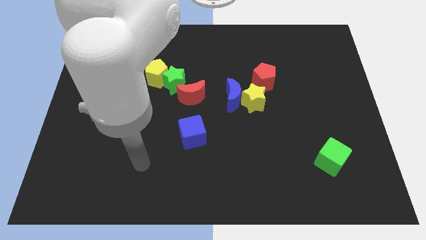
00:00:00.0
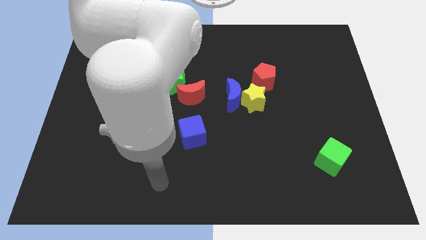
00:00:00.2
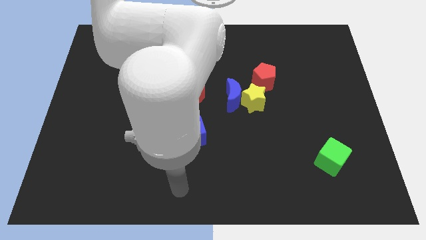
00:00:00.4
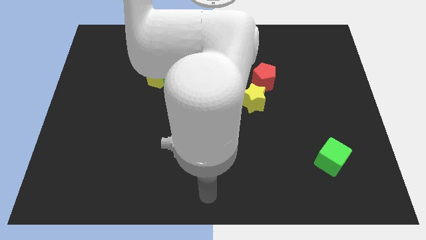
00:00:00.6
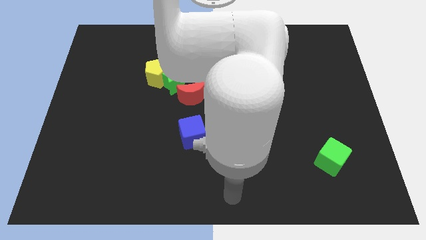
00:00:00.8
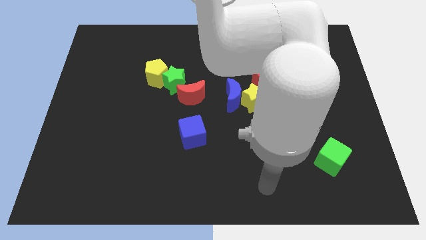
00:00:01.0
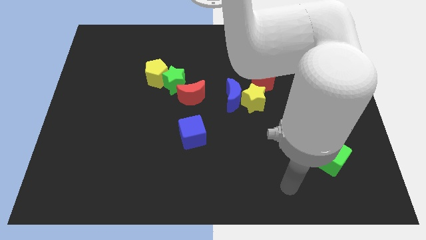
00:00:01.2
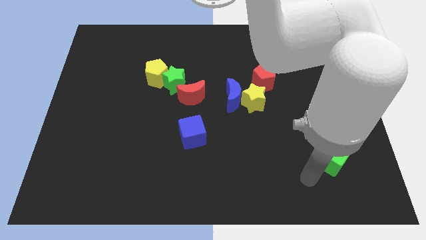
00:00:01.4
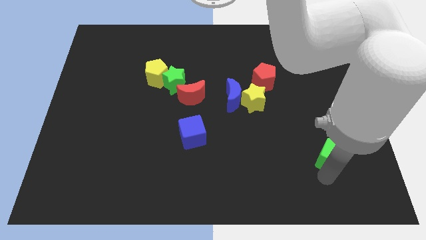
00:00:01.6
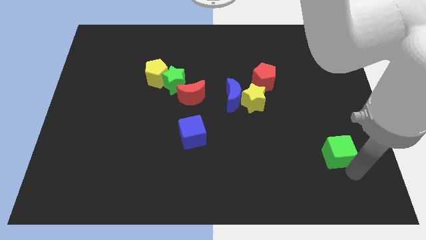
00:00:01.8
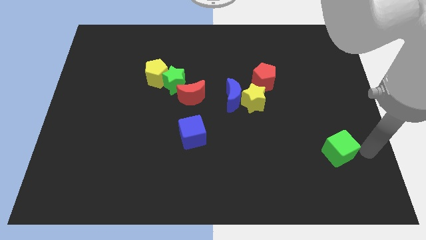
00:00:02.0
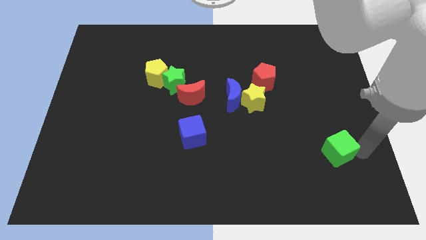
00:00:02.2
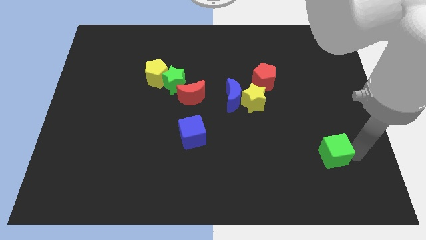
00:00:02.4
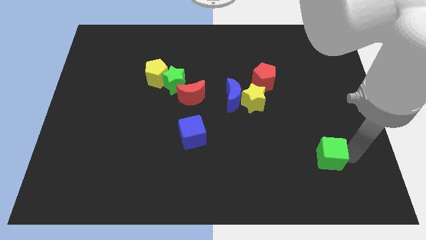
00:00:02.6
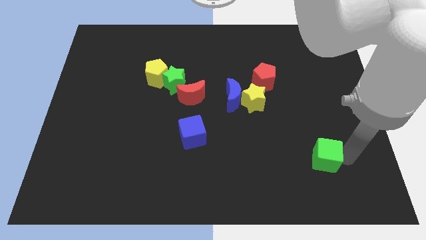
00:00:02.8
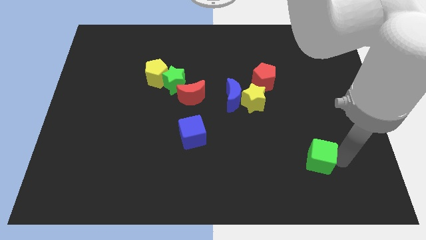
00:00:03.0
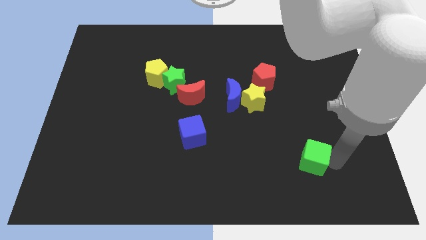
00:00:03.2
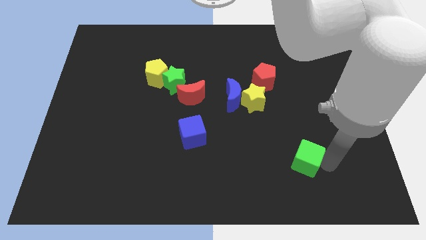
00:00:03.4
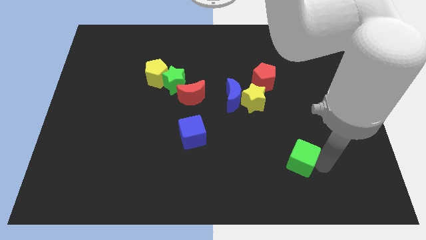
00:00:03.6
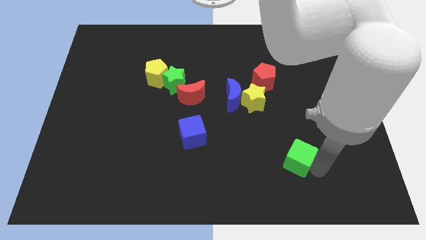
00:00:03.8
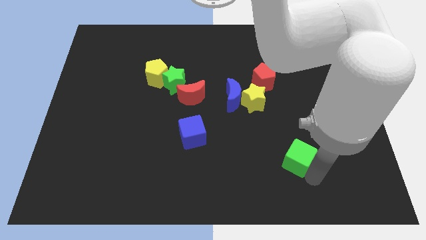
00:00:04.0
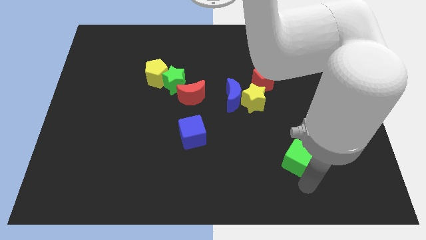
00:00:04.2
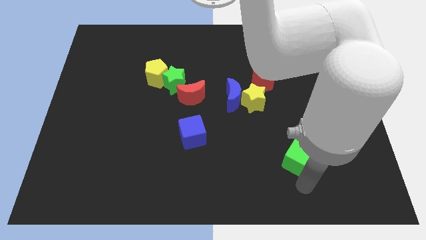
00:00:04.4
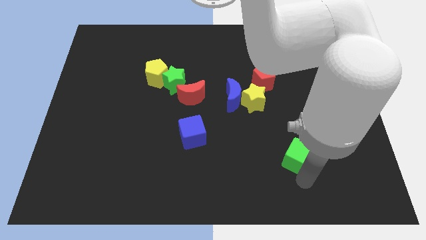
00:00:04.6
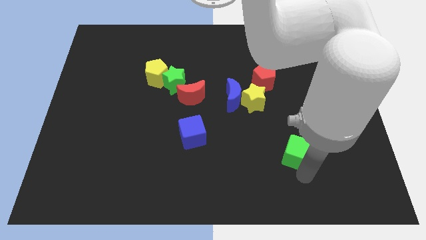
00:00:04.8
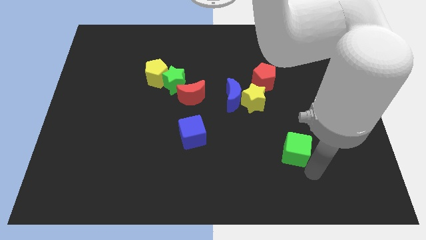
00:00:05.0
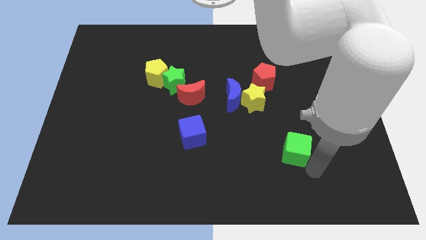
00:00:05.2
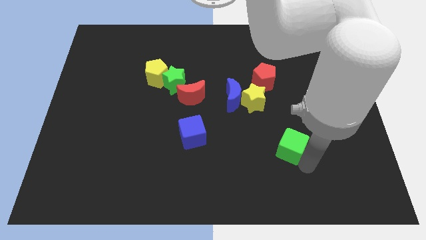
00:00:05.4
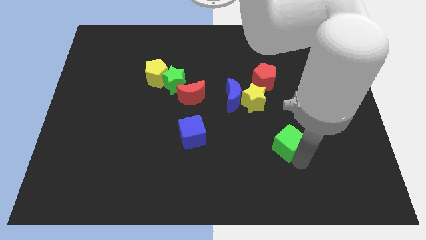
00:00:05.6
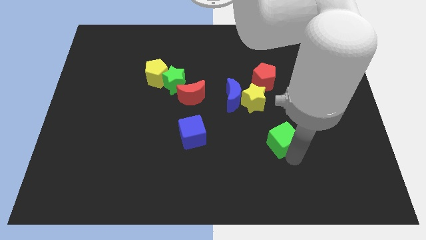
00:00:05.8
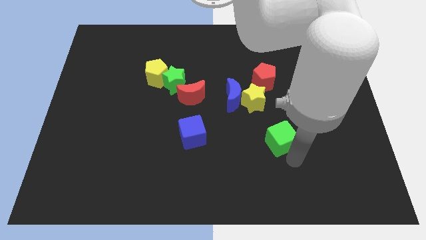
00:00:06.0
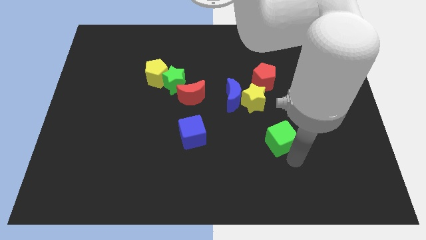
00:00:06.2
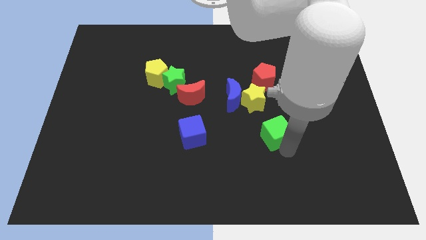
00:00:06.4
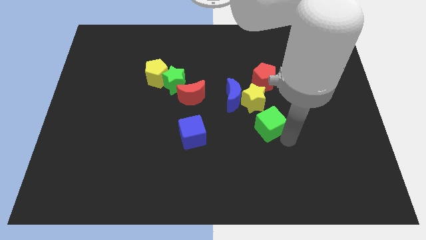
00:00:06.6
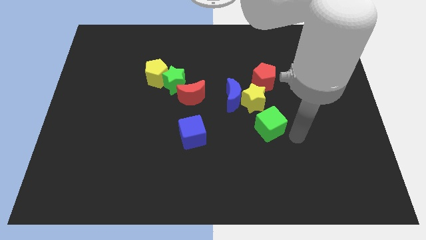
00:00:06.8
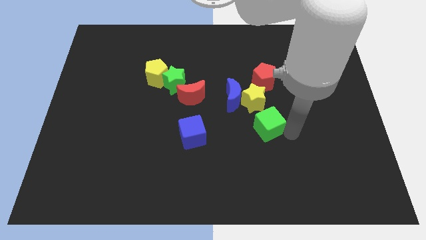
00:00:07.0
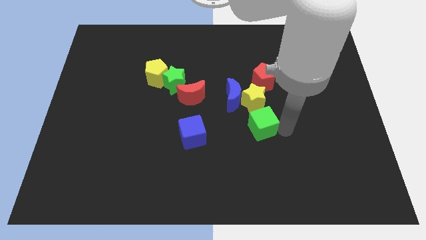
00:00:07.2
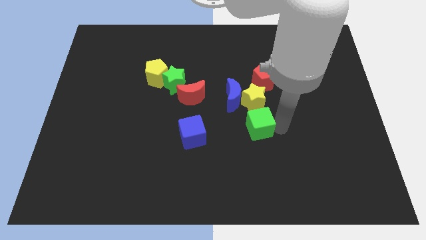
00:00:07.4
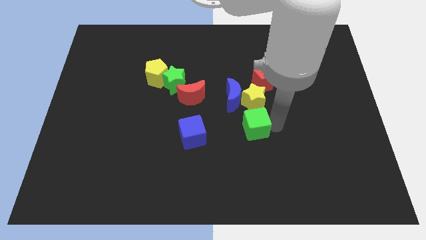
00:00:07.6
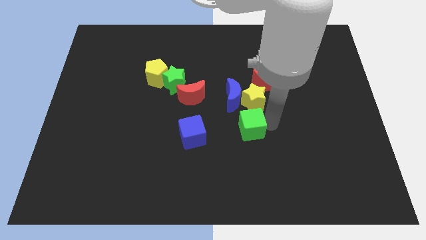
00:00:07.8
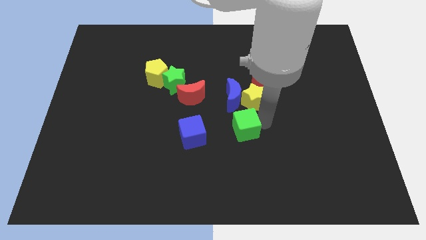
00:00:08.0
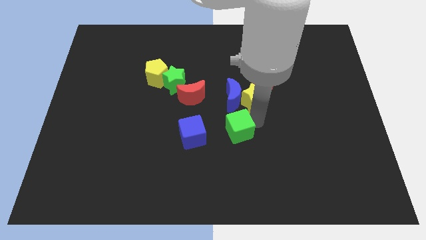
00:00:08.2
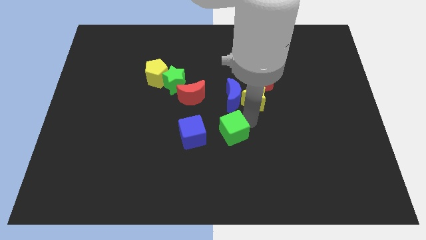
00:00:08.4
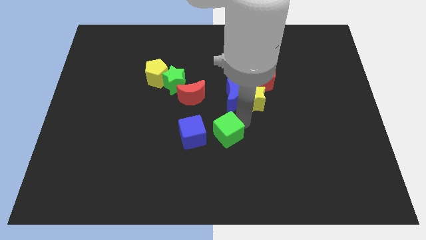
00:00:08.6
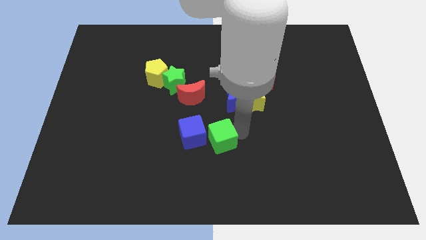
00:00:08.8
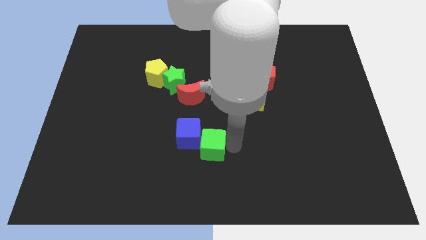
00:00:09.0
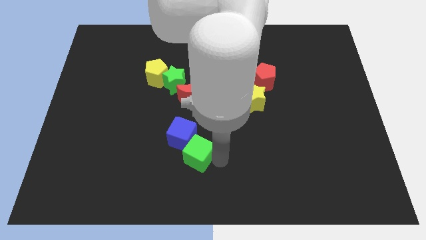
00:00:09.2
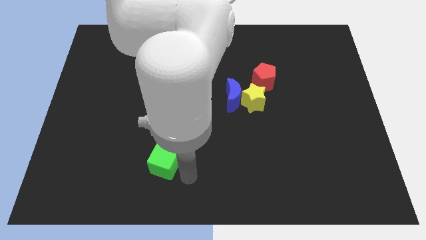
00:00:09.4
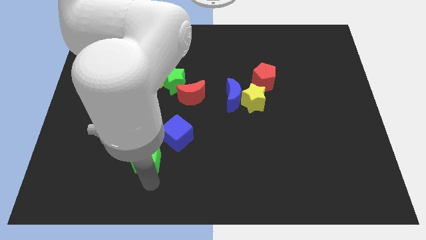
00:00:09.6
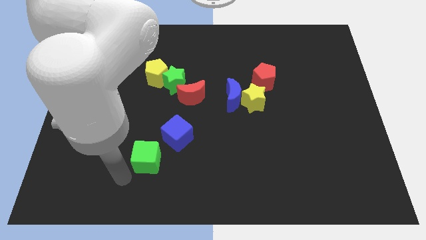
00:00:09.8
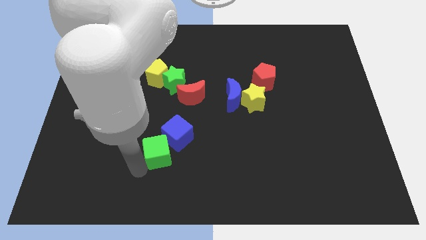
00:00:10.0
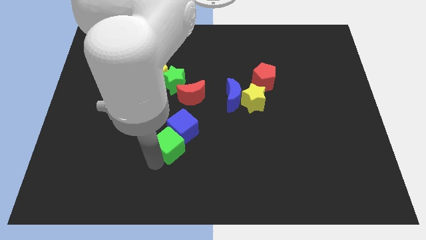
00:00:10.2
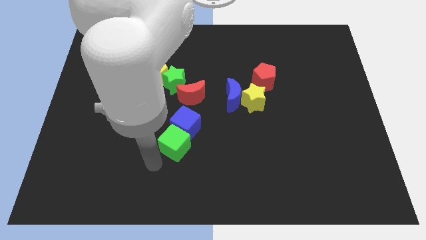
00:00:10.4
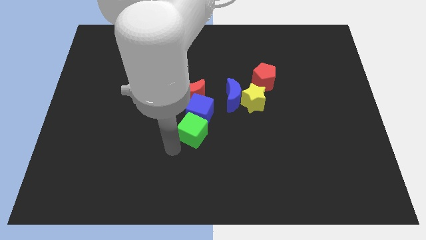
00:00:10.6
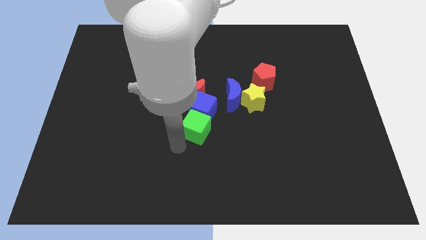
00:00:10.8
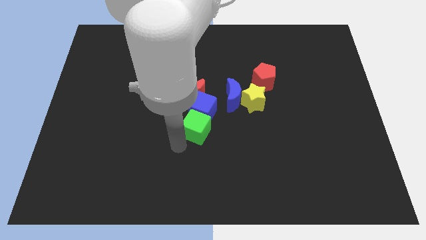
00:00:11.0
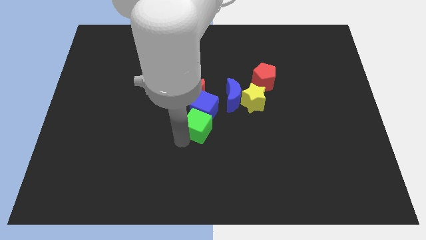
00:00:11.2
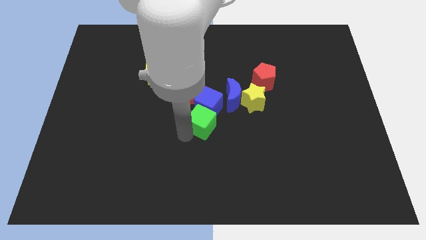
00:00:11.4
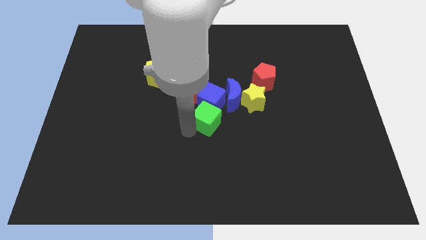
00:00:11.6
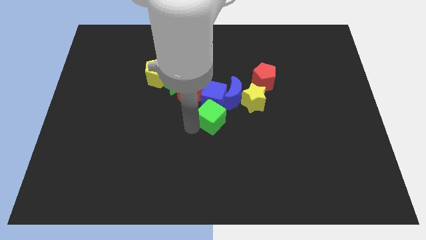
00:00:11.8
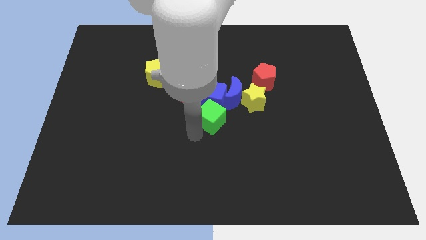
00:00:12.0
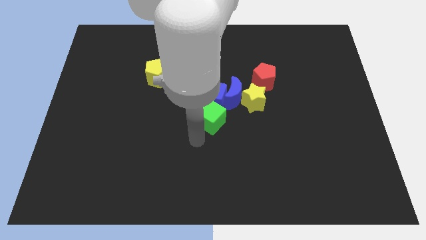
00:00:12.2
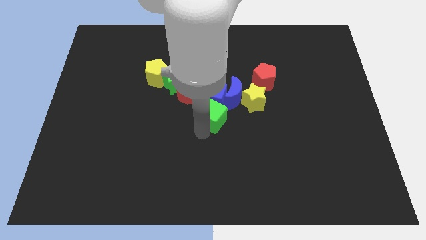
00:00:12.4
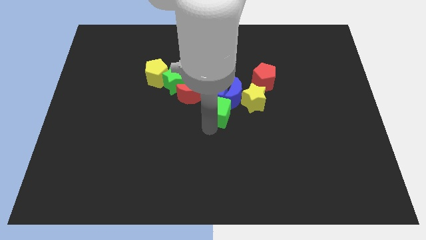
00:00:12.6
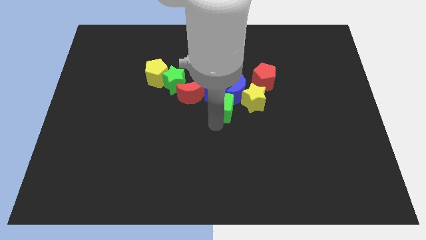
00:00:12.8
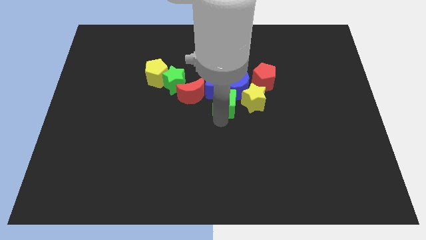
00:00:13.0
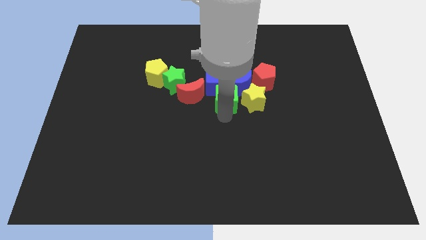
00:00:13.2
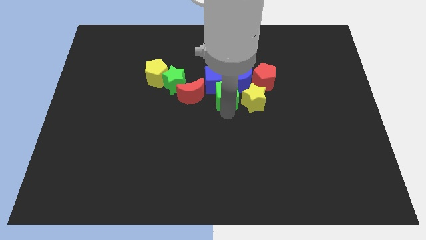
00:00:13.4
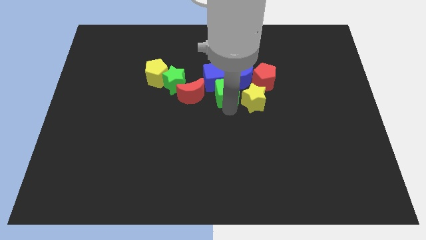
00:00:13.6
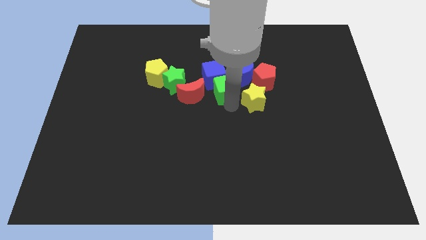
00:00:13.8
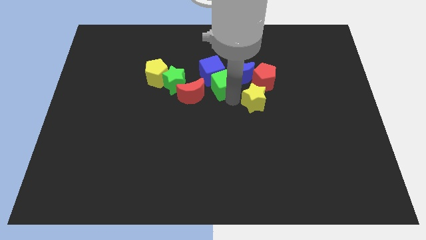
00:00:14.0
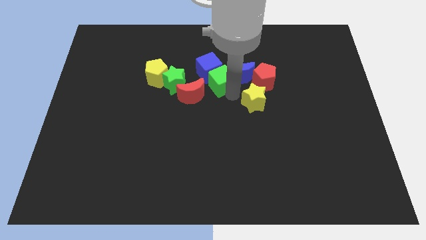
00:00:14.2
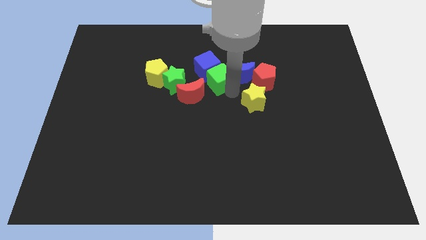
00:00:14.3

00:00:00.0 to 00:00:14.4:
put the green cube just right of the yellow pentagon
